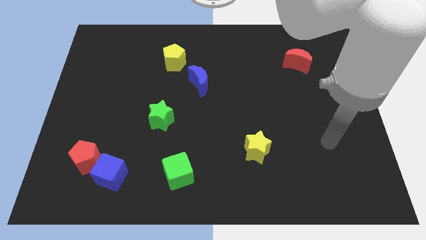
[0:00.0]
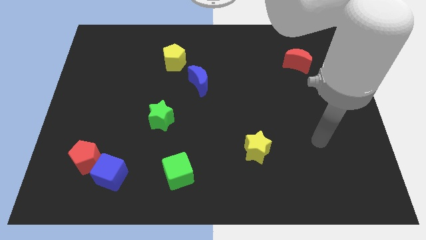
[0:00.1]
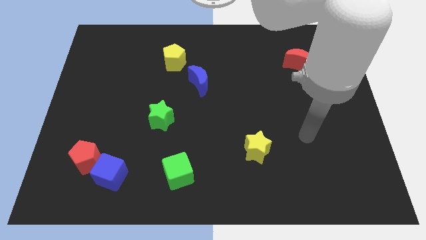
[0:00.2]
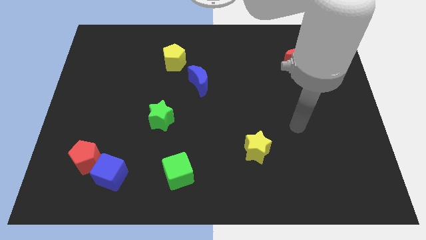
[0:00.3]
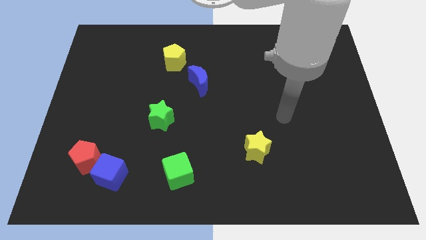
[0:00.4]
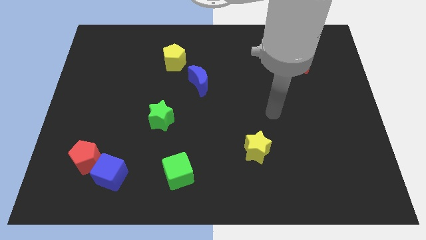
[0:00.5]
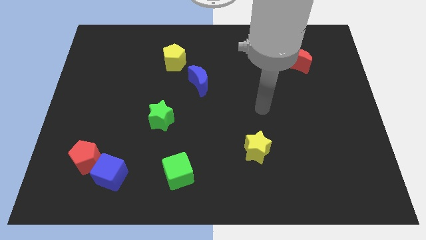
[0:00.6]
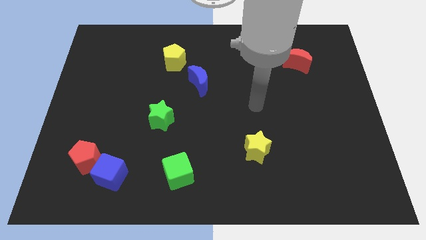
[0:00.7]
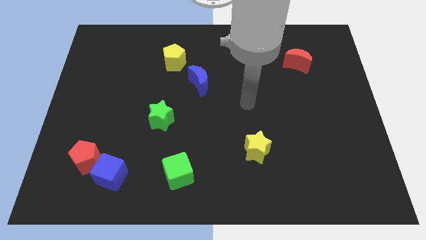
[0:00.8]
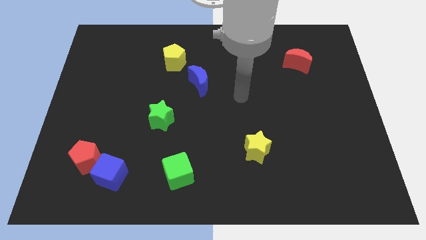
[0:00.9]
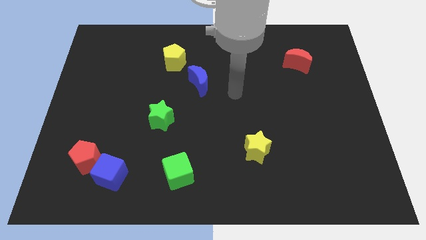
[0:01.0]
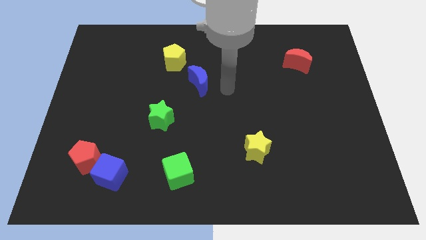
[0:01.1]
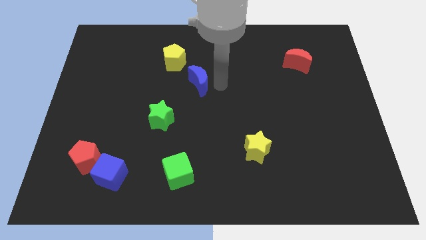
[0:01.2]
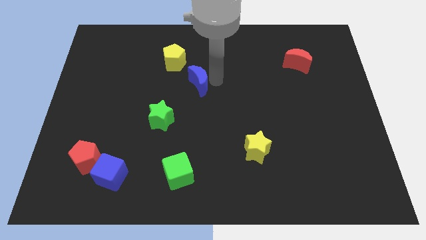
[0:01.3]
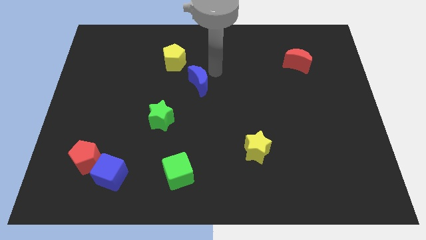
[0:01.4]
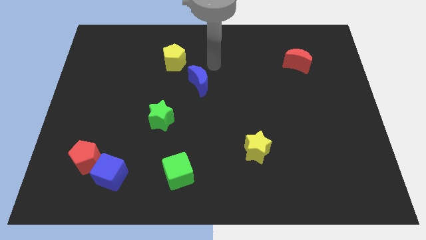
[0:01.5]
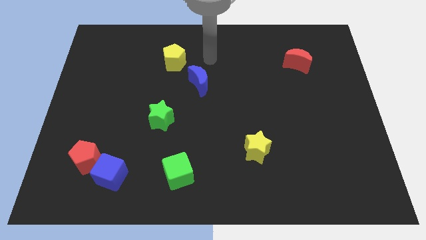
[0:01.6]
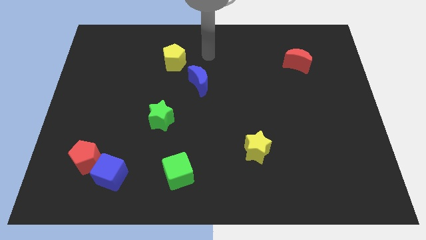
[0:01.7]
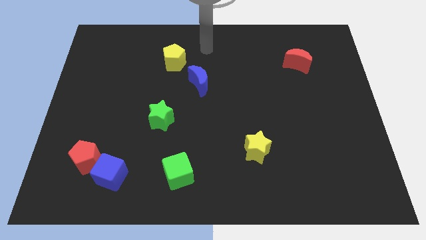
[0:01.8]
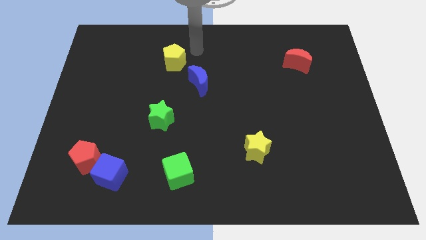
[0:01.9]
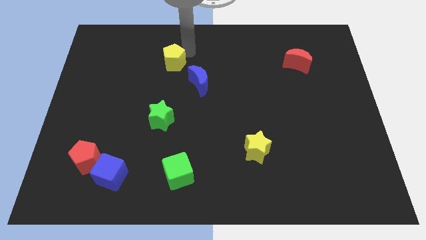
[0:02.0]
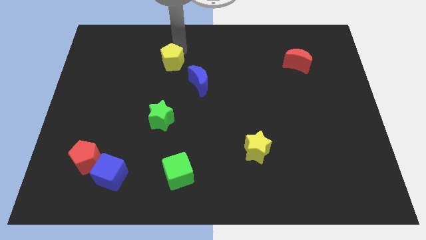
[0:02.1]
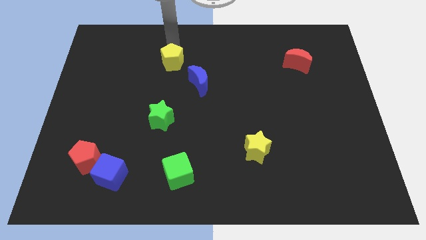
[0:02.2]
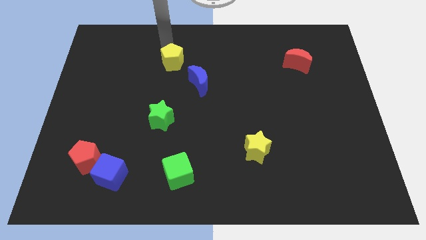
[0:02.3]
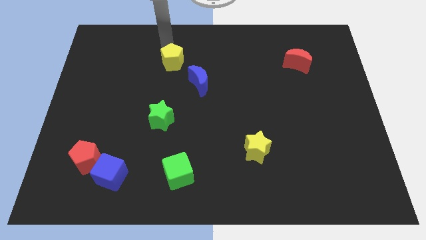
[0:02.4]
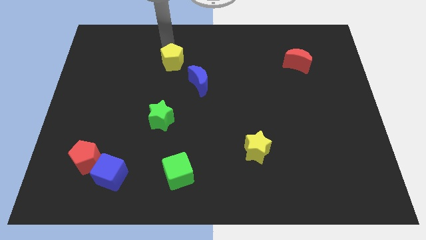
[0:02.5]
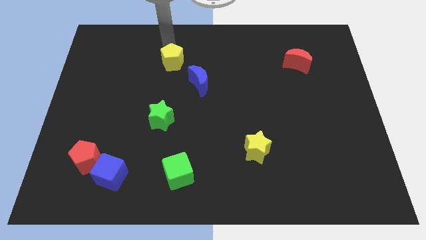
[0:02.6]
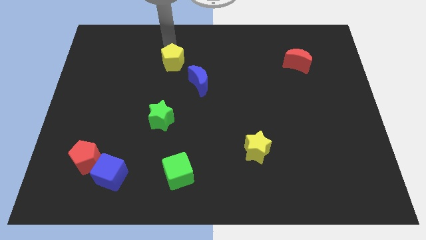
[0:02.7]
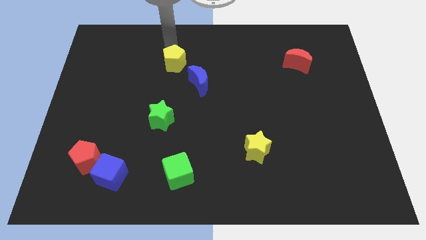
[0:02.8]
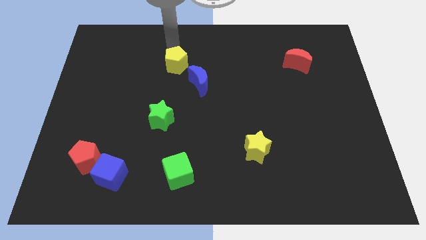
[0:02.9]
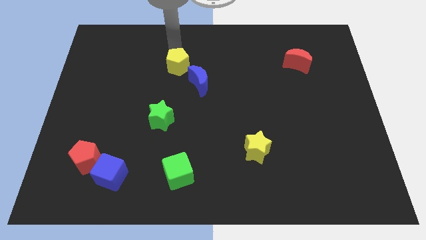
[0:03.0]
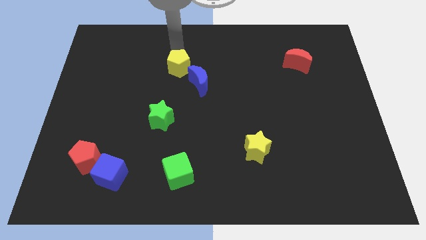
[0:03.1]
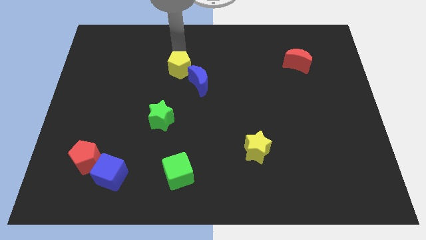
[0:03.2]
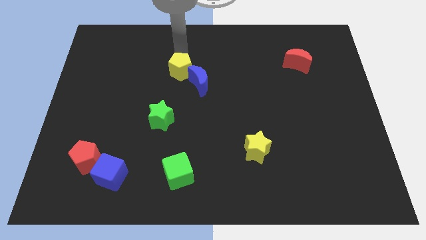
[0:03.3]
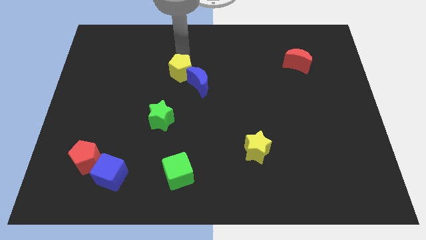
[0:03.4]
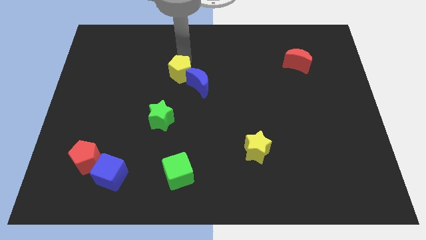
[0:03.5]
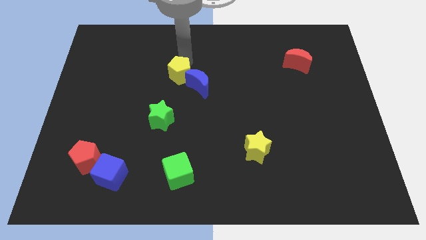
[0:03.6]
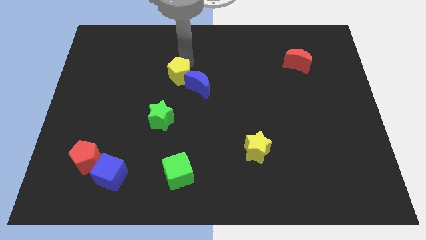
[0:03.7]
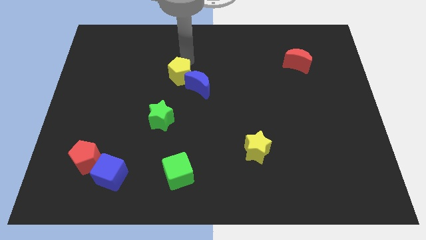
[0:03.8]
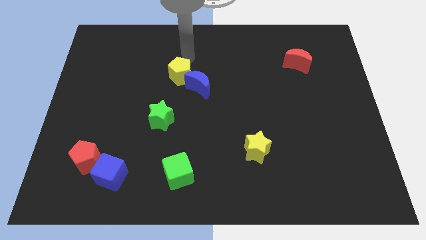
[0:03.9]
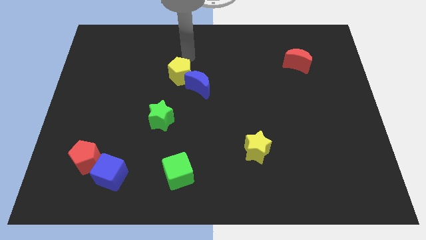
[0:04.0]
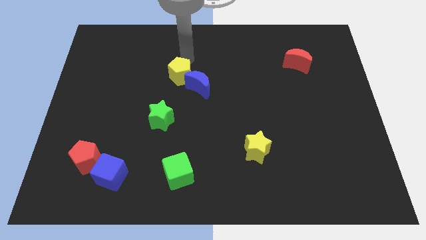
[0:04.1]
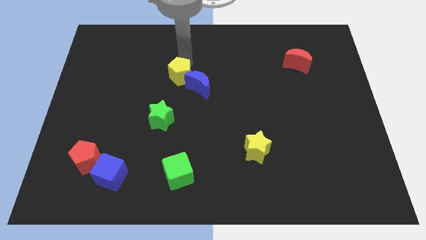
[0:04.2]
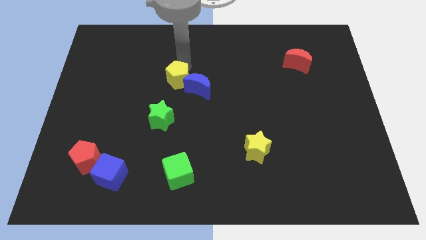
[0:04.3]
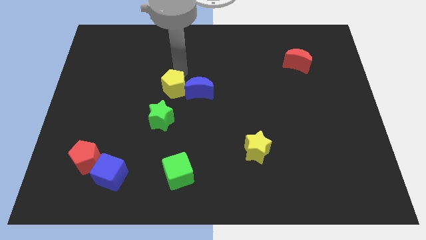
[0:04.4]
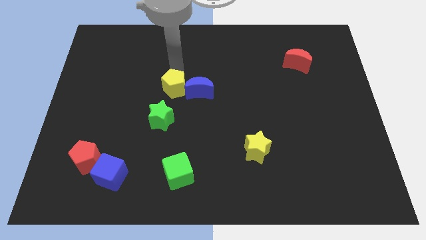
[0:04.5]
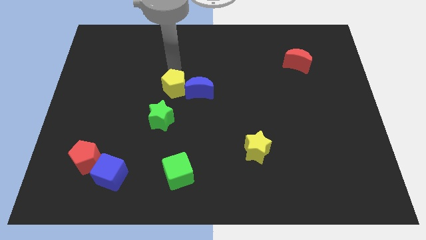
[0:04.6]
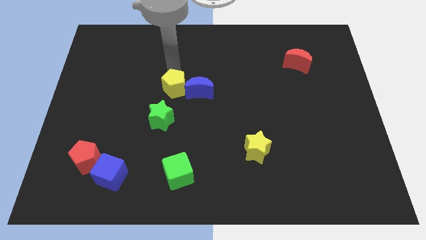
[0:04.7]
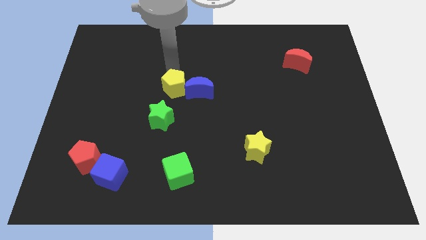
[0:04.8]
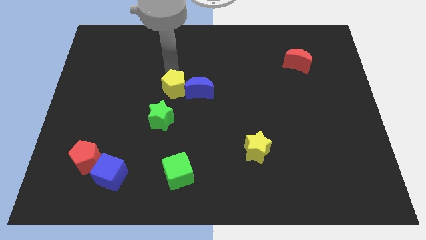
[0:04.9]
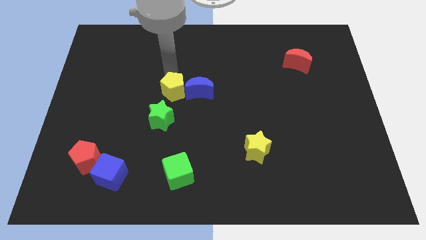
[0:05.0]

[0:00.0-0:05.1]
push the yellow pentagon to the bottom left side of the blue moon

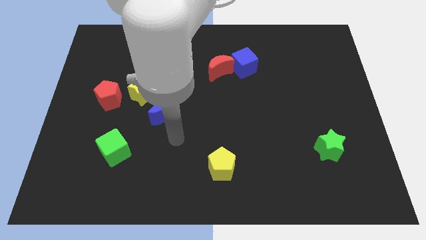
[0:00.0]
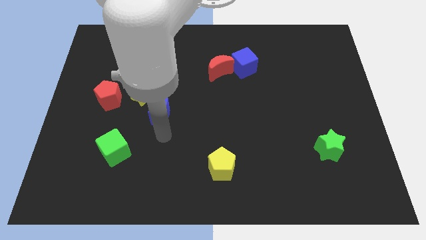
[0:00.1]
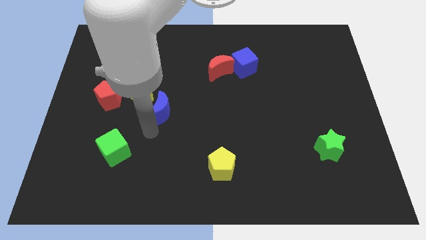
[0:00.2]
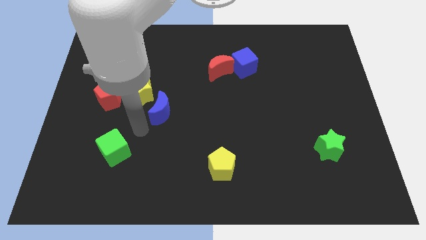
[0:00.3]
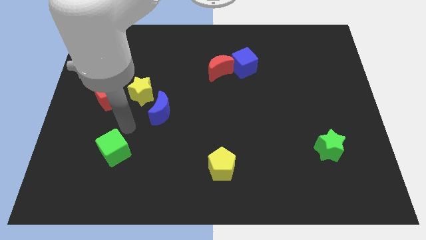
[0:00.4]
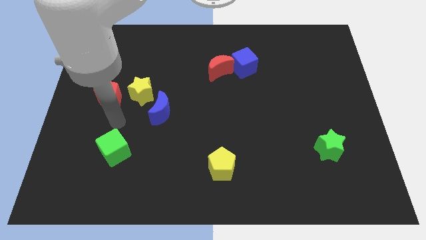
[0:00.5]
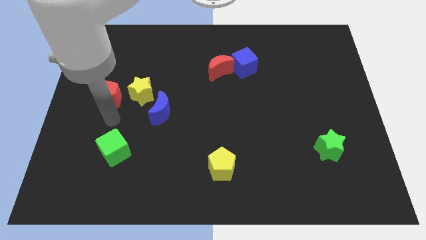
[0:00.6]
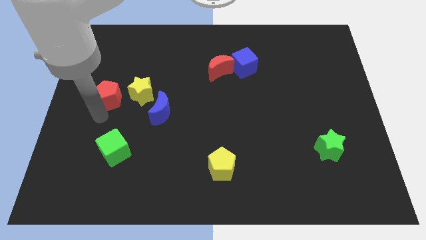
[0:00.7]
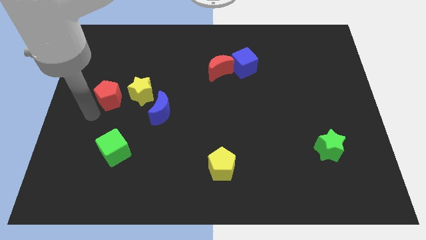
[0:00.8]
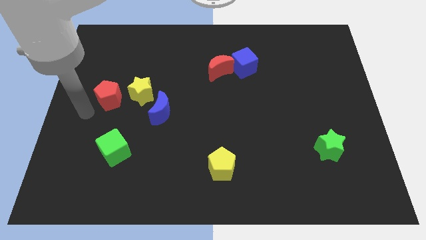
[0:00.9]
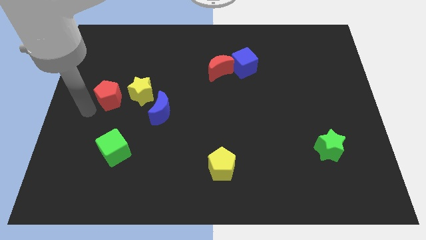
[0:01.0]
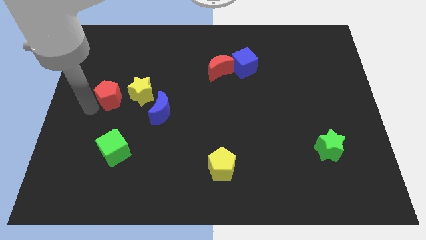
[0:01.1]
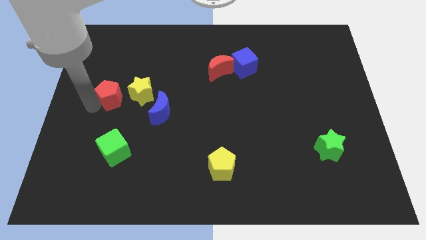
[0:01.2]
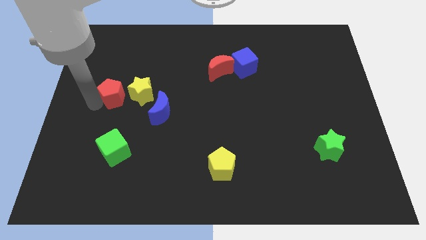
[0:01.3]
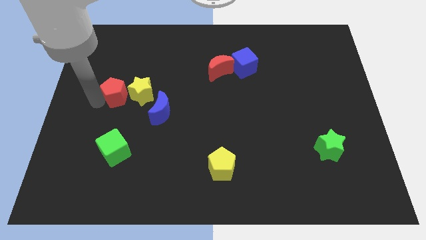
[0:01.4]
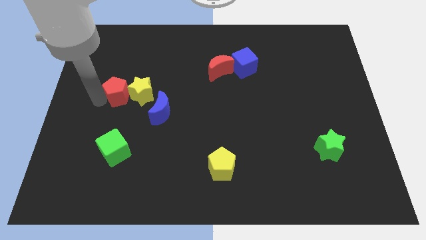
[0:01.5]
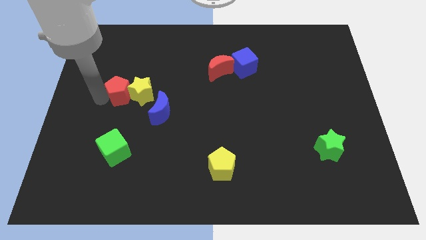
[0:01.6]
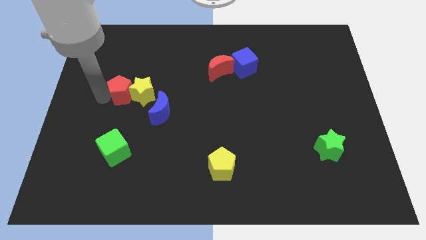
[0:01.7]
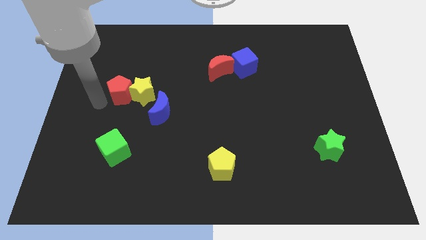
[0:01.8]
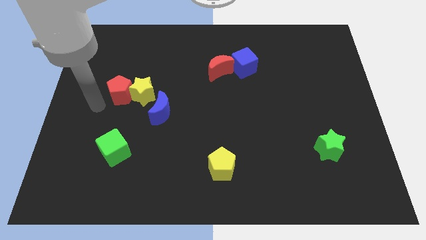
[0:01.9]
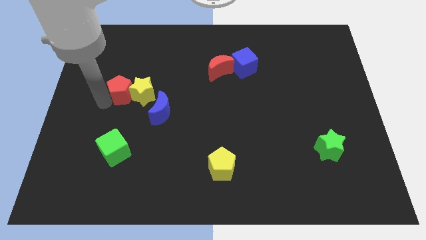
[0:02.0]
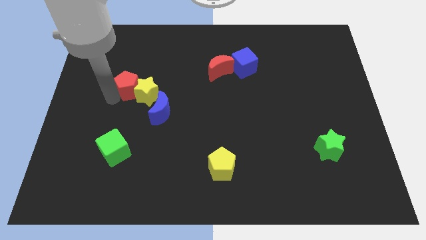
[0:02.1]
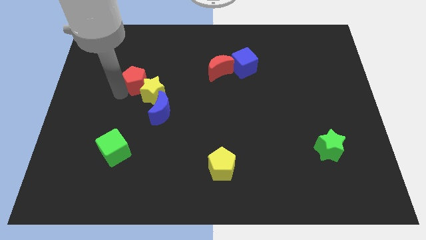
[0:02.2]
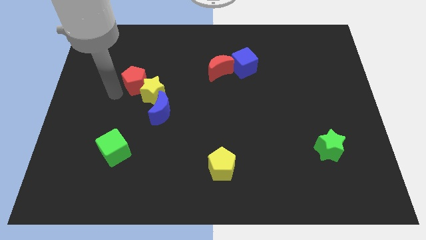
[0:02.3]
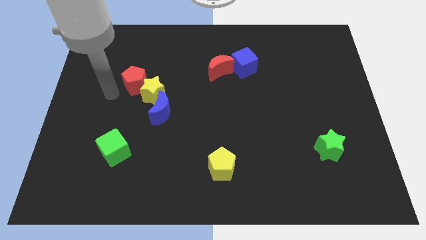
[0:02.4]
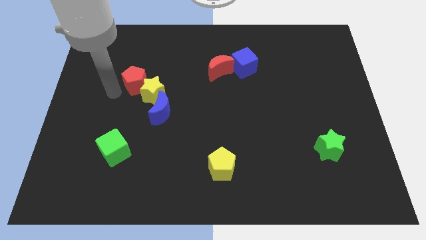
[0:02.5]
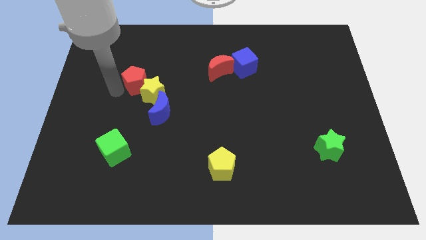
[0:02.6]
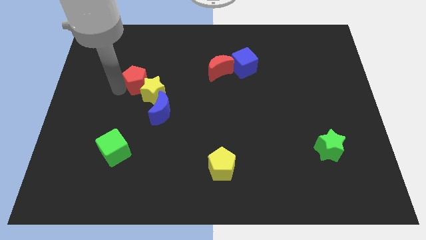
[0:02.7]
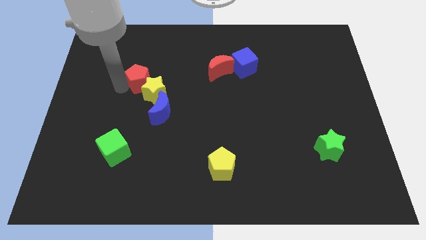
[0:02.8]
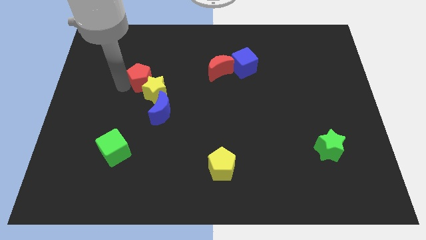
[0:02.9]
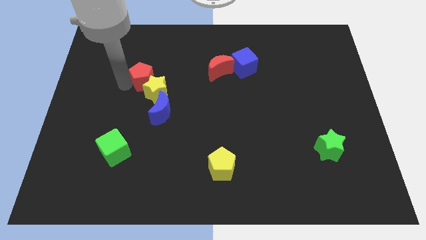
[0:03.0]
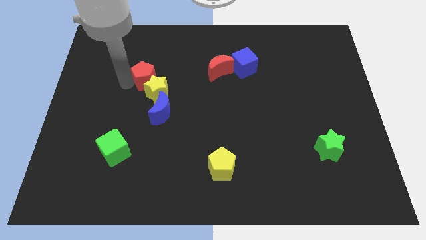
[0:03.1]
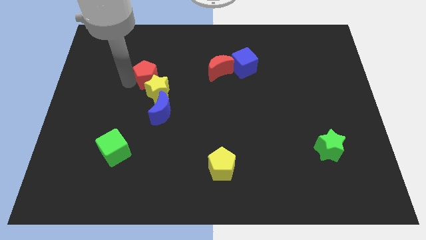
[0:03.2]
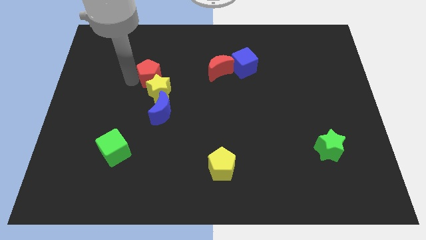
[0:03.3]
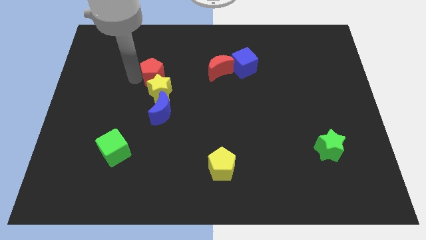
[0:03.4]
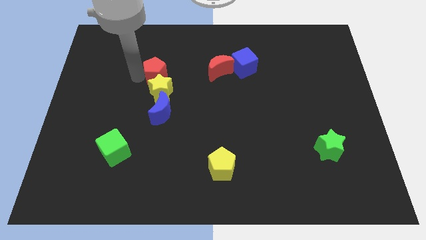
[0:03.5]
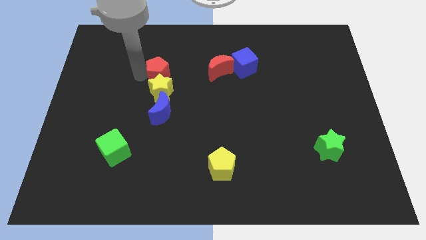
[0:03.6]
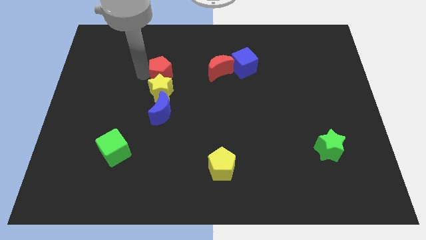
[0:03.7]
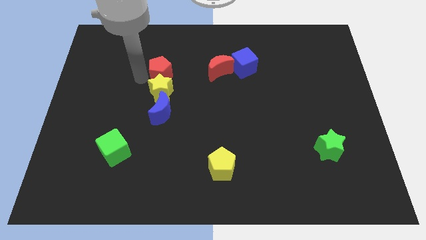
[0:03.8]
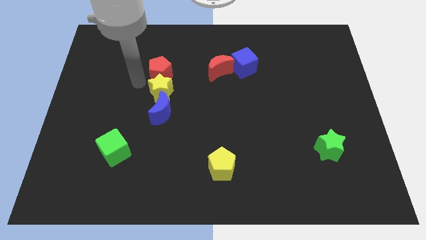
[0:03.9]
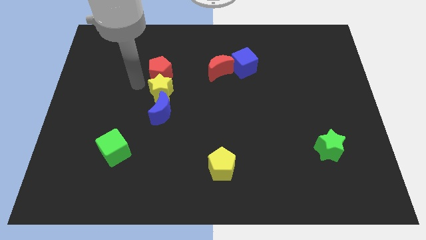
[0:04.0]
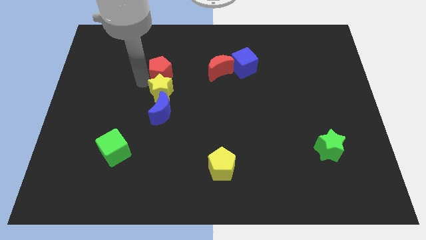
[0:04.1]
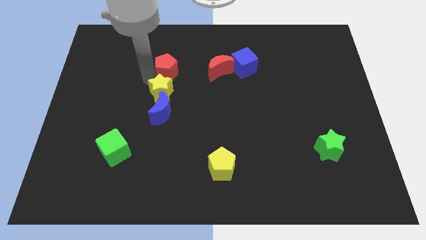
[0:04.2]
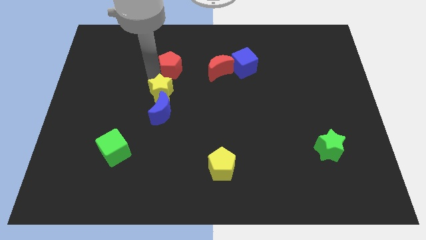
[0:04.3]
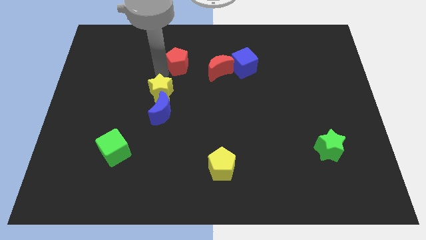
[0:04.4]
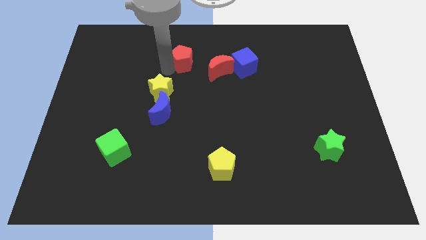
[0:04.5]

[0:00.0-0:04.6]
move the red pentagon diagonally up and to the left of the red moon
